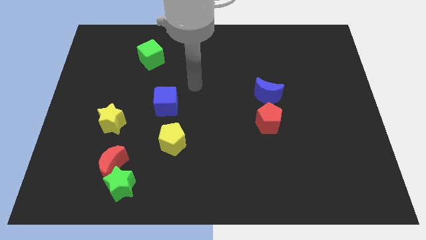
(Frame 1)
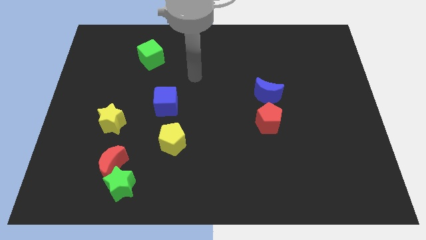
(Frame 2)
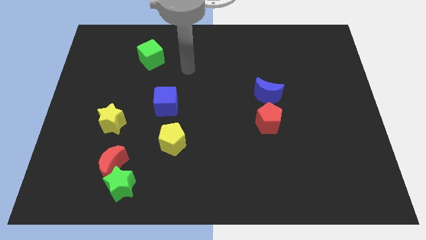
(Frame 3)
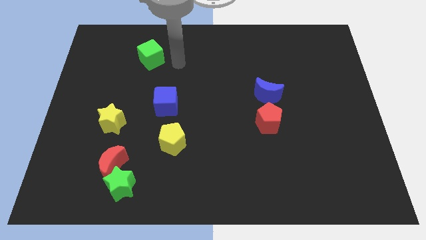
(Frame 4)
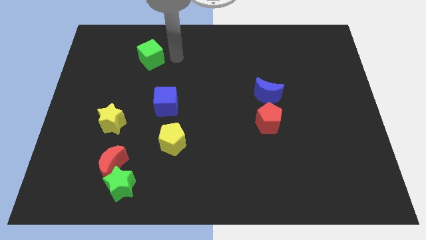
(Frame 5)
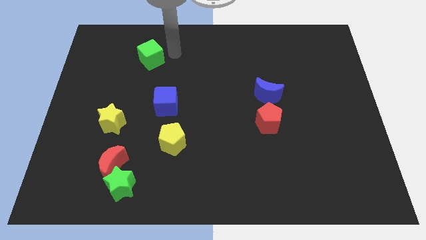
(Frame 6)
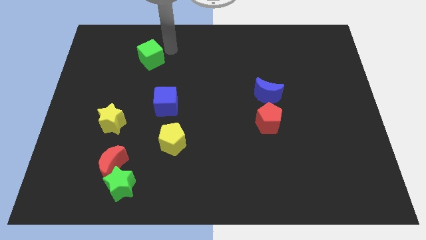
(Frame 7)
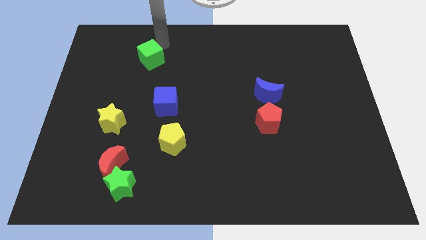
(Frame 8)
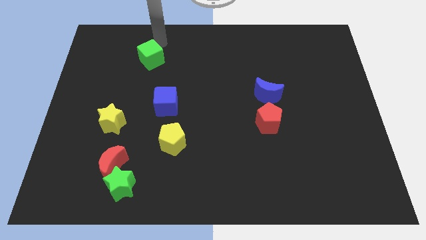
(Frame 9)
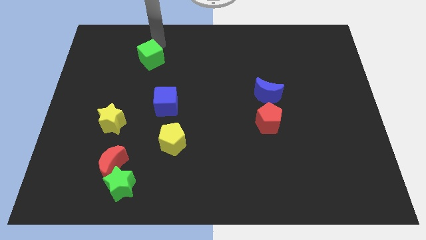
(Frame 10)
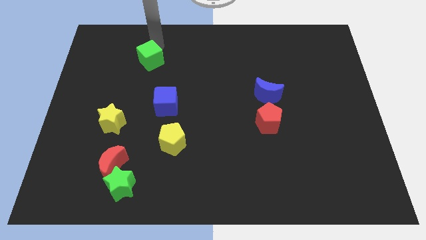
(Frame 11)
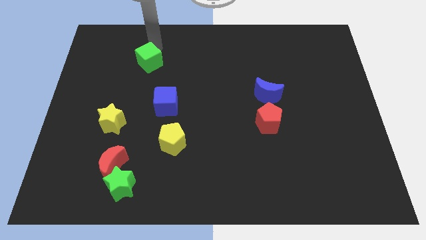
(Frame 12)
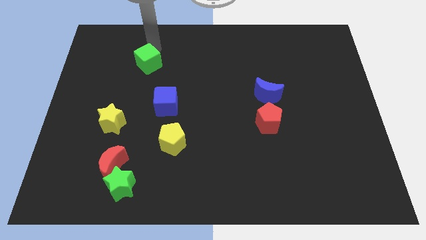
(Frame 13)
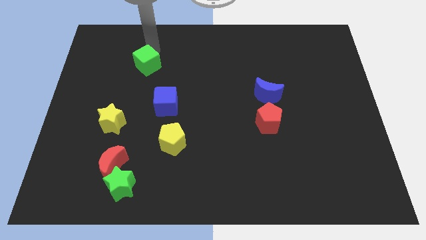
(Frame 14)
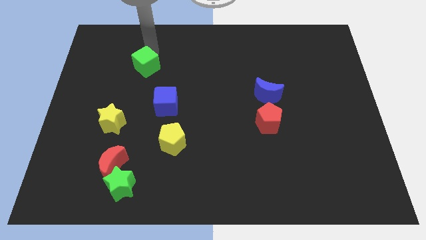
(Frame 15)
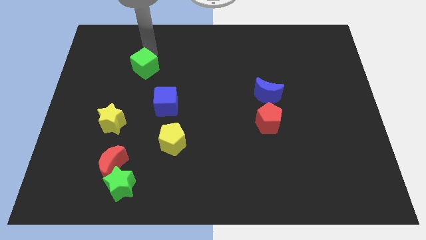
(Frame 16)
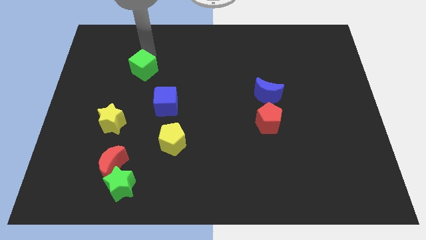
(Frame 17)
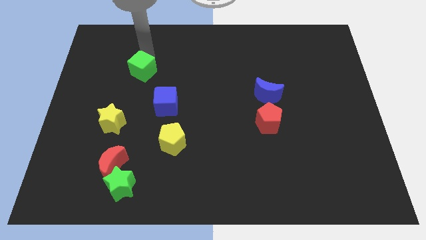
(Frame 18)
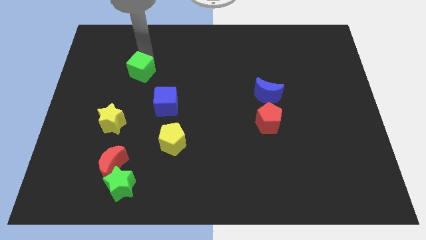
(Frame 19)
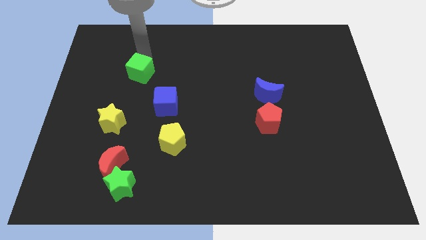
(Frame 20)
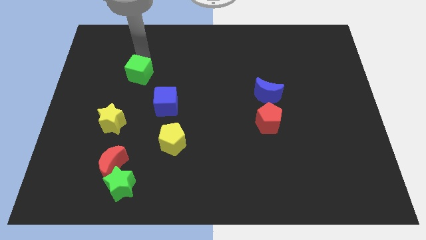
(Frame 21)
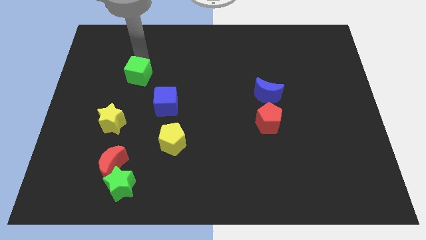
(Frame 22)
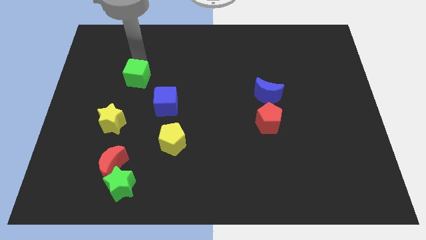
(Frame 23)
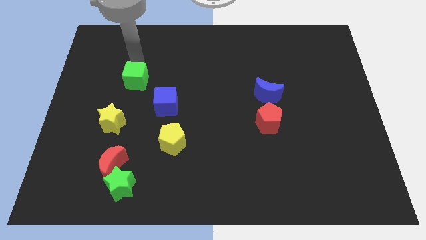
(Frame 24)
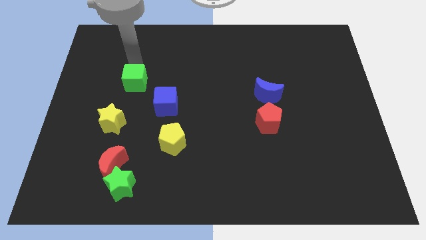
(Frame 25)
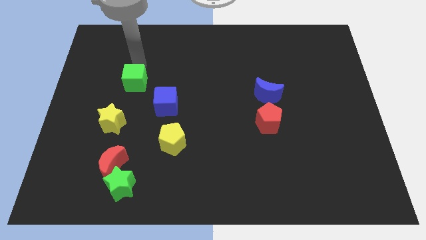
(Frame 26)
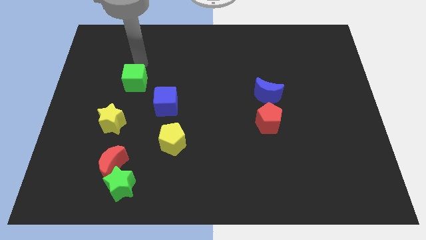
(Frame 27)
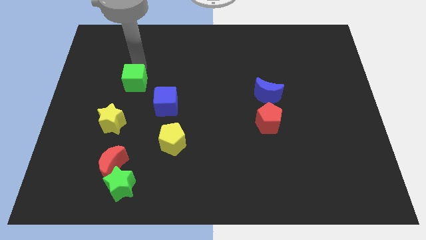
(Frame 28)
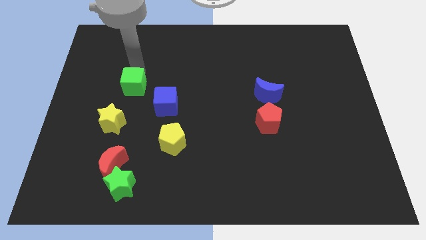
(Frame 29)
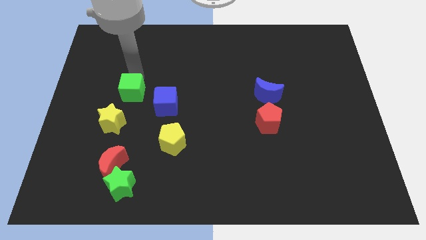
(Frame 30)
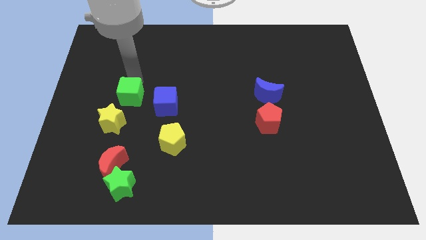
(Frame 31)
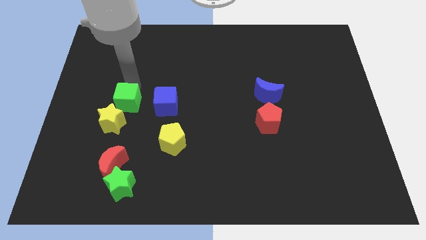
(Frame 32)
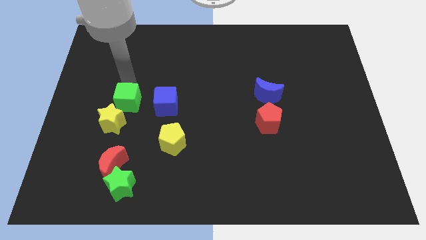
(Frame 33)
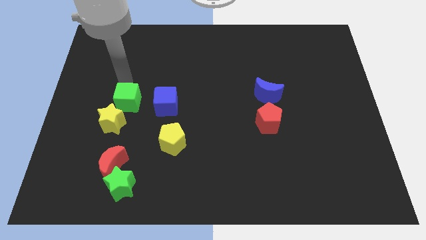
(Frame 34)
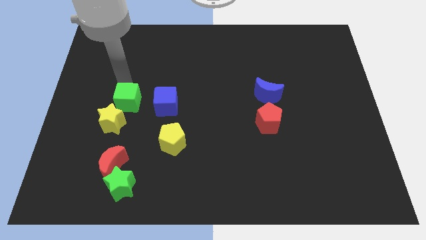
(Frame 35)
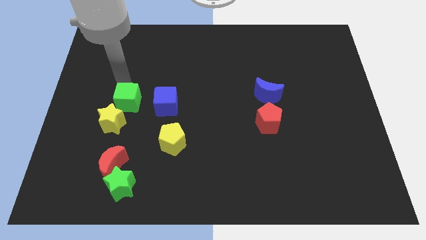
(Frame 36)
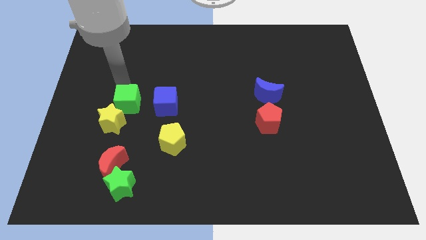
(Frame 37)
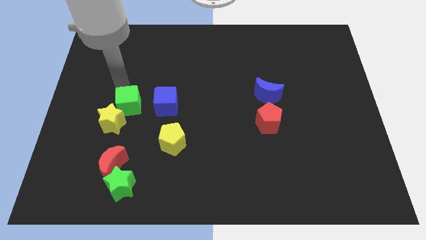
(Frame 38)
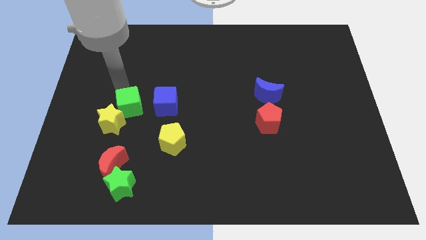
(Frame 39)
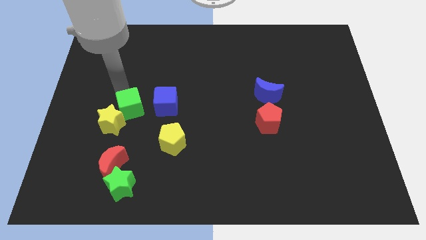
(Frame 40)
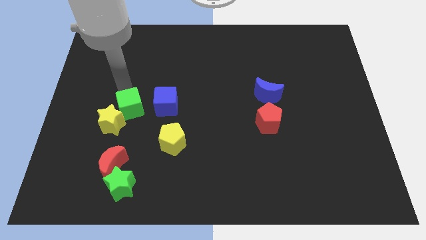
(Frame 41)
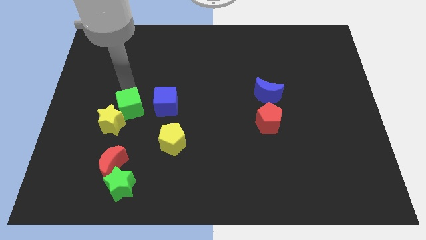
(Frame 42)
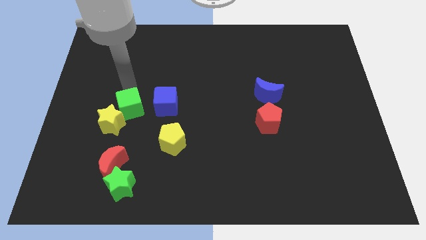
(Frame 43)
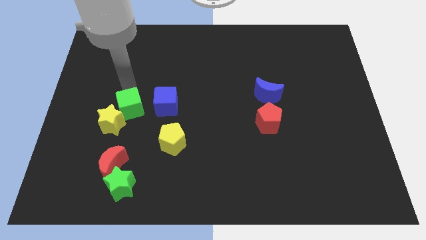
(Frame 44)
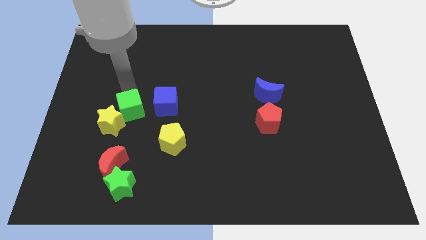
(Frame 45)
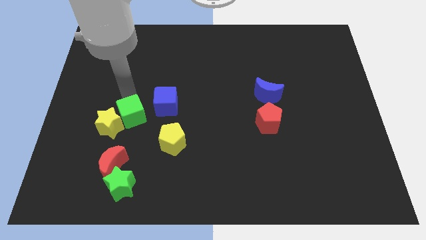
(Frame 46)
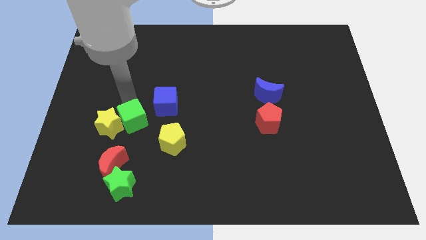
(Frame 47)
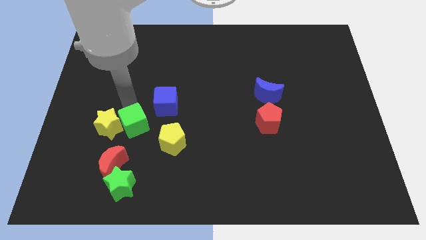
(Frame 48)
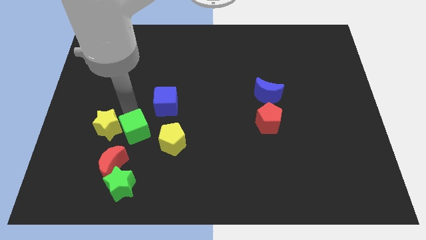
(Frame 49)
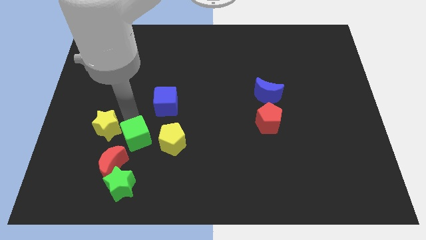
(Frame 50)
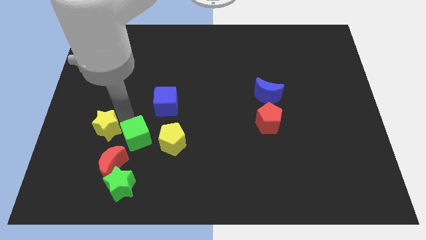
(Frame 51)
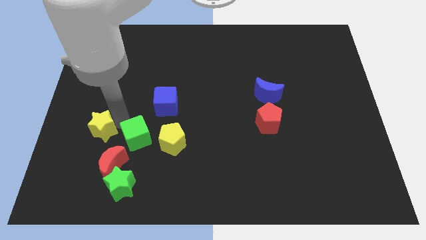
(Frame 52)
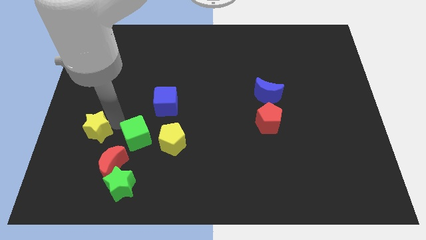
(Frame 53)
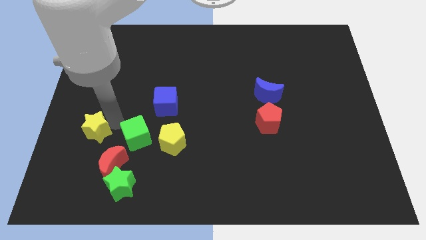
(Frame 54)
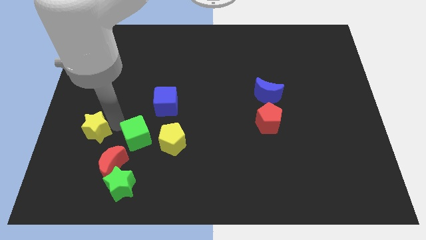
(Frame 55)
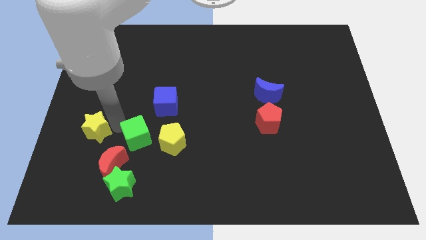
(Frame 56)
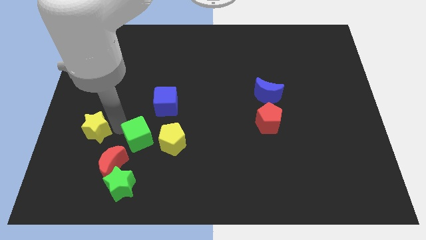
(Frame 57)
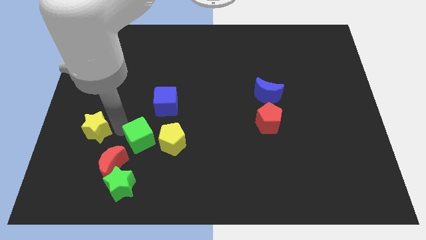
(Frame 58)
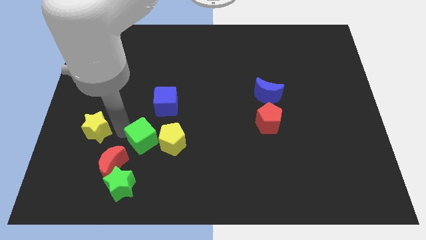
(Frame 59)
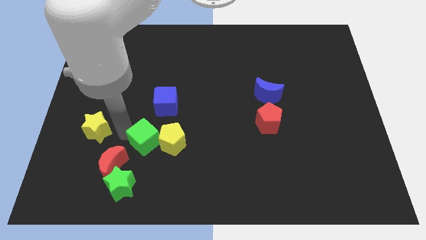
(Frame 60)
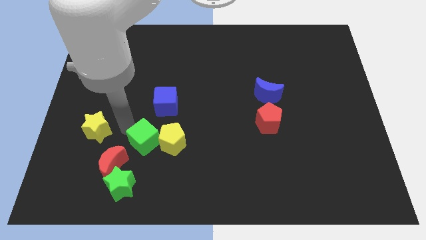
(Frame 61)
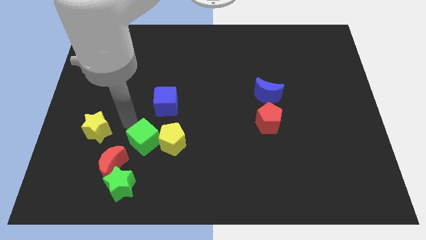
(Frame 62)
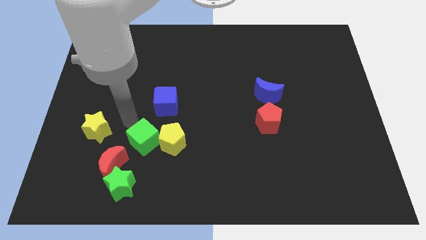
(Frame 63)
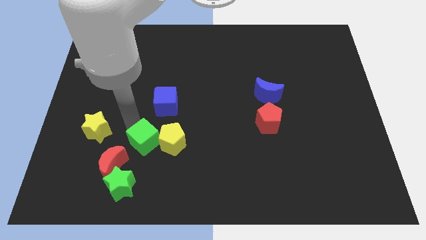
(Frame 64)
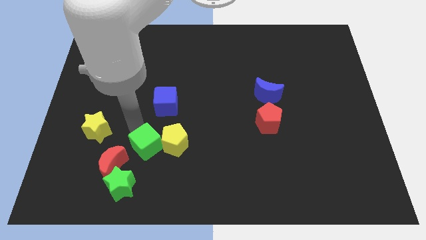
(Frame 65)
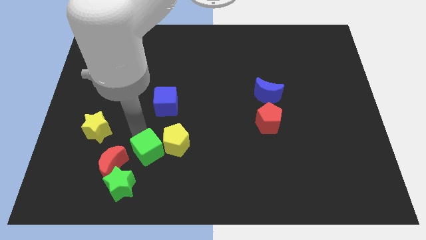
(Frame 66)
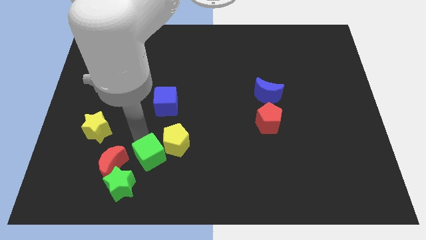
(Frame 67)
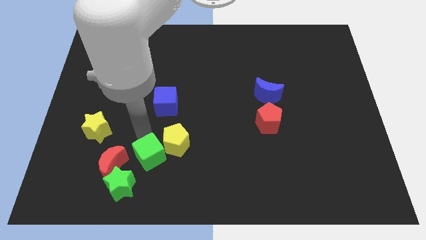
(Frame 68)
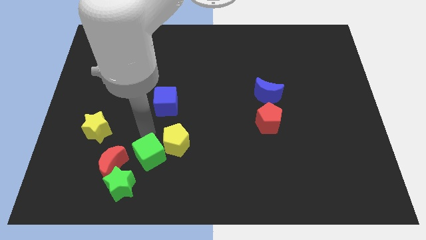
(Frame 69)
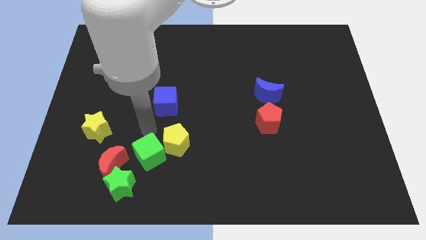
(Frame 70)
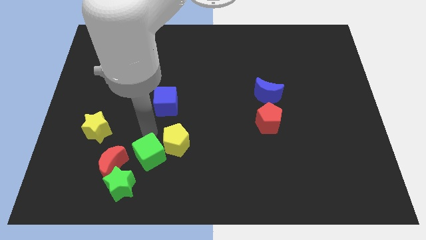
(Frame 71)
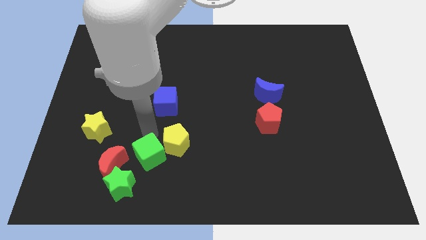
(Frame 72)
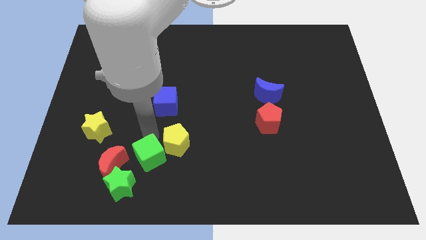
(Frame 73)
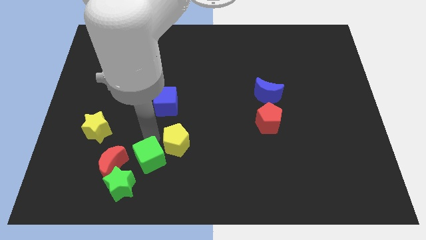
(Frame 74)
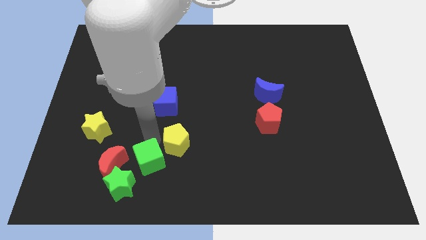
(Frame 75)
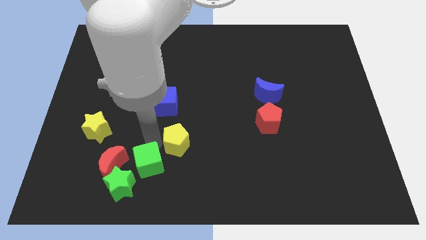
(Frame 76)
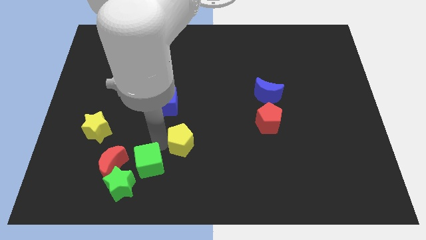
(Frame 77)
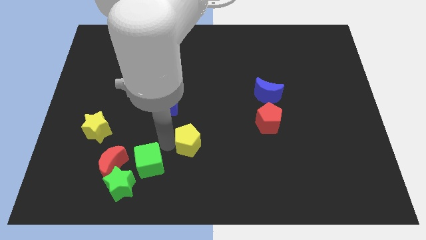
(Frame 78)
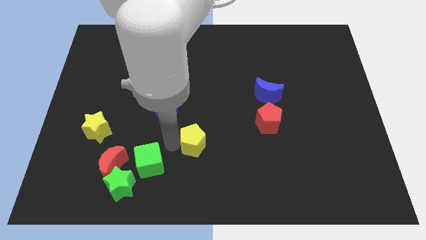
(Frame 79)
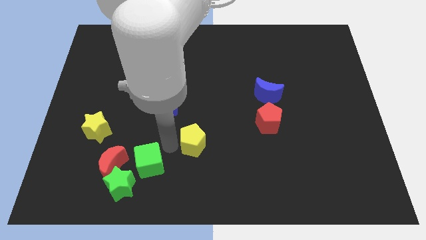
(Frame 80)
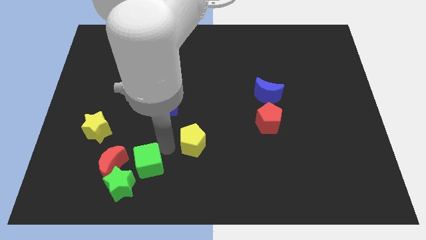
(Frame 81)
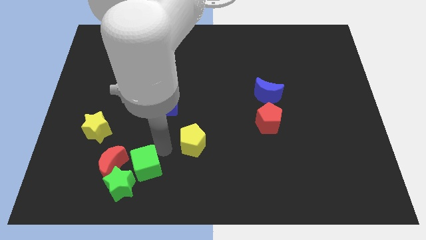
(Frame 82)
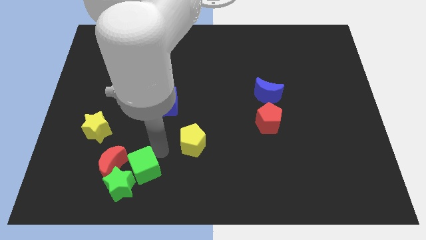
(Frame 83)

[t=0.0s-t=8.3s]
move the green cube next to the green star
